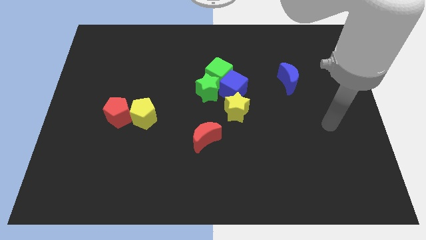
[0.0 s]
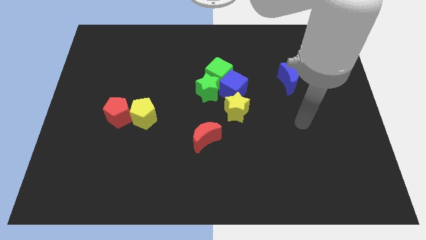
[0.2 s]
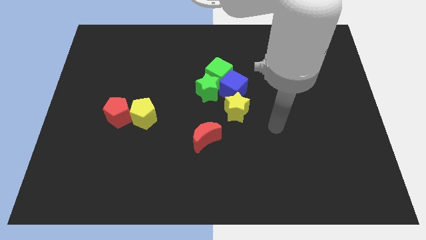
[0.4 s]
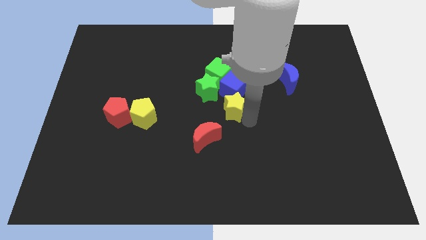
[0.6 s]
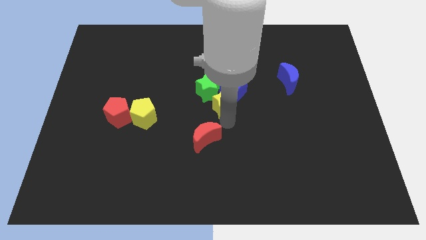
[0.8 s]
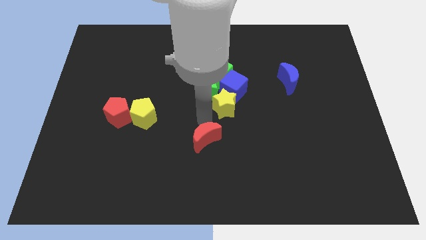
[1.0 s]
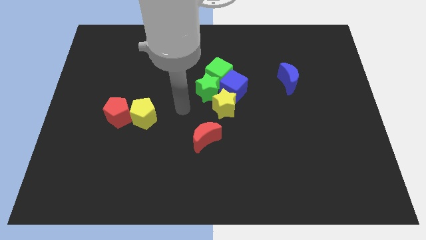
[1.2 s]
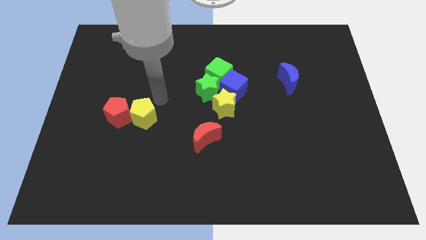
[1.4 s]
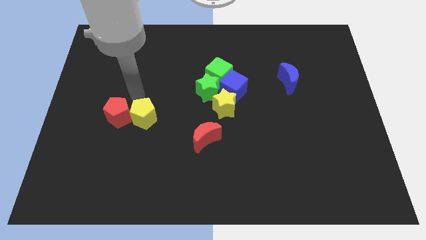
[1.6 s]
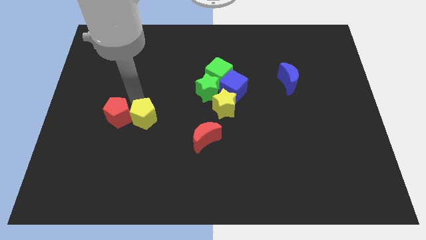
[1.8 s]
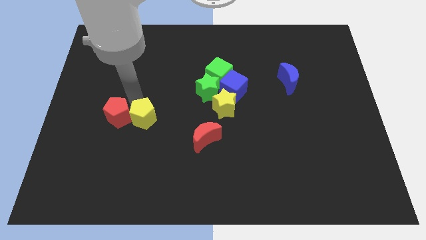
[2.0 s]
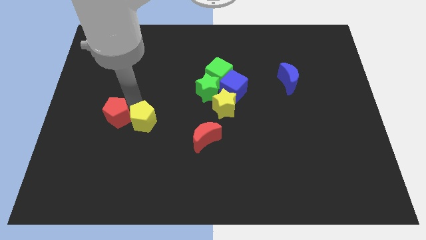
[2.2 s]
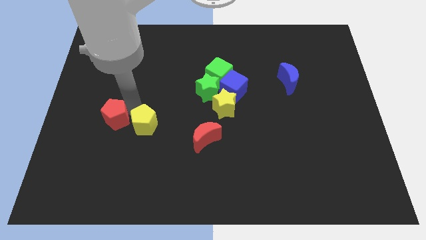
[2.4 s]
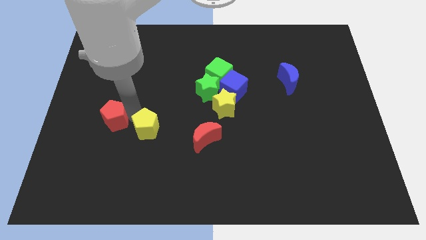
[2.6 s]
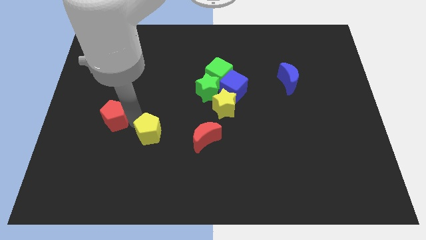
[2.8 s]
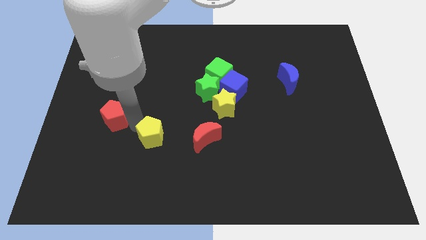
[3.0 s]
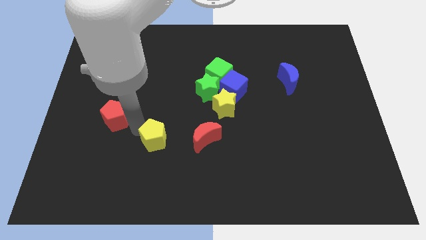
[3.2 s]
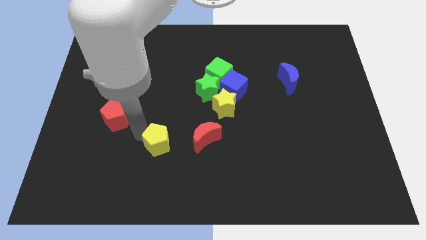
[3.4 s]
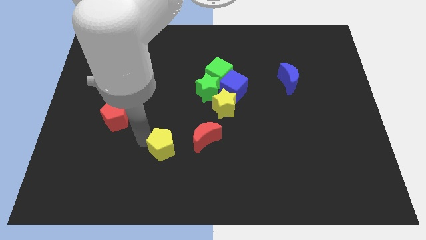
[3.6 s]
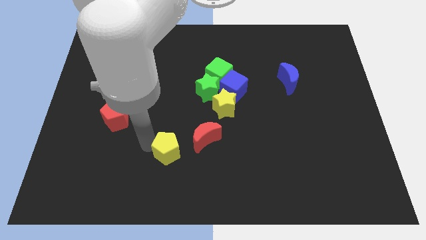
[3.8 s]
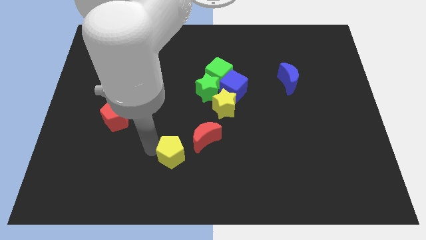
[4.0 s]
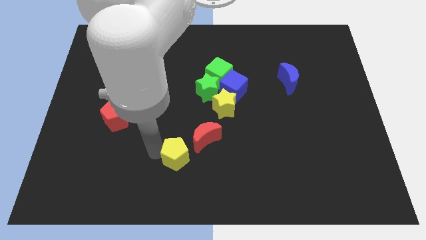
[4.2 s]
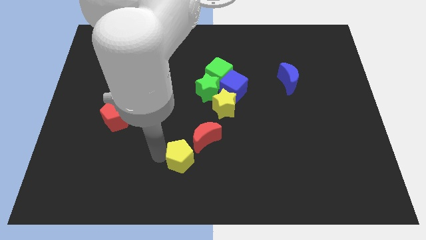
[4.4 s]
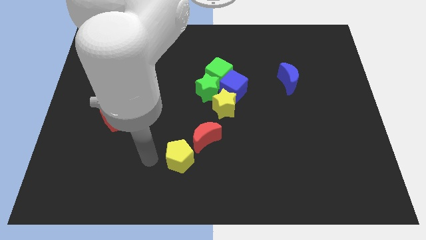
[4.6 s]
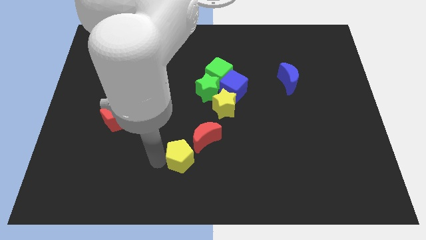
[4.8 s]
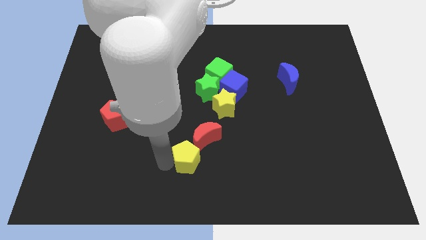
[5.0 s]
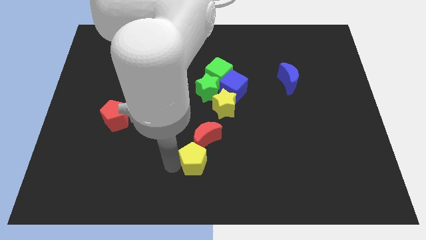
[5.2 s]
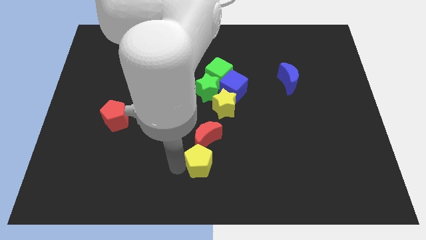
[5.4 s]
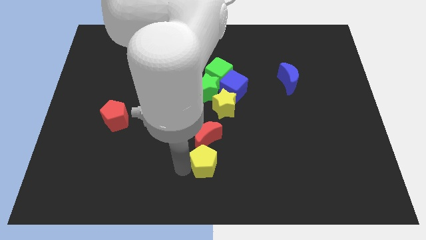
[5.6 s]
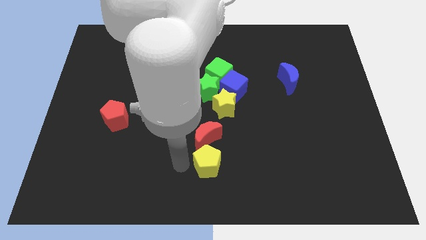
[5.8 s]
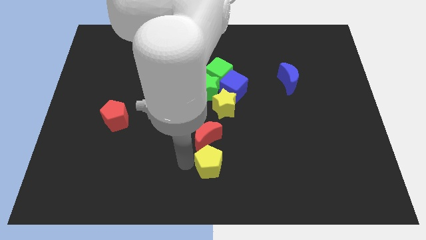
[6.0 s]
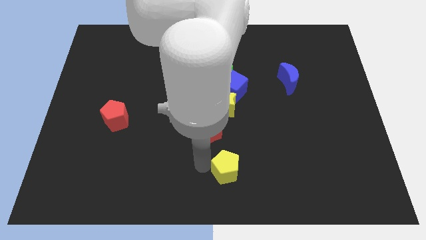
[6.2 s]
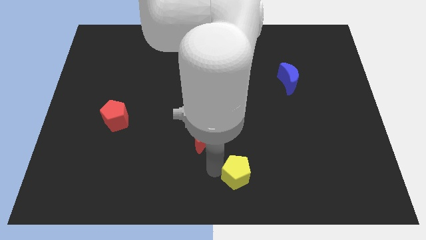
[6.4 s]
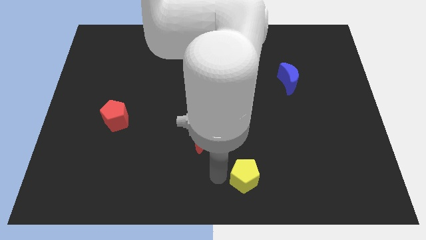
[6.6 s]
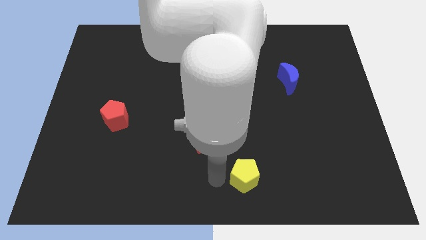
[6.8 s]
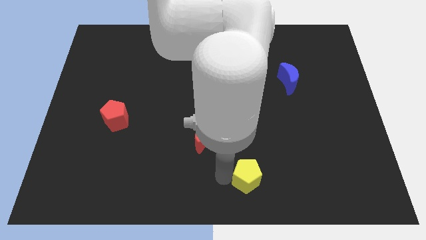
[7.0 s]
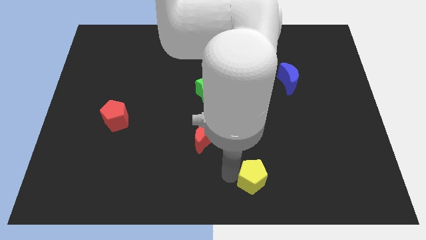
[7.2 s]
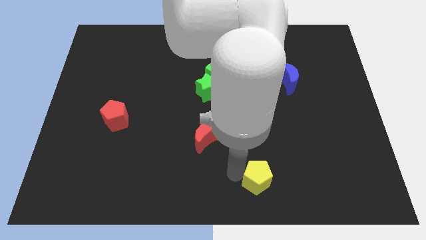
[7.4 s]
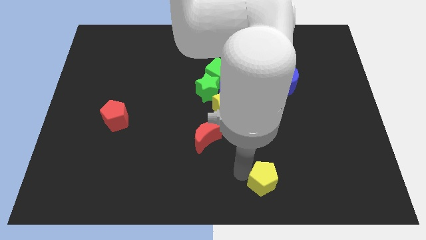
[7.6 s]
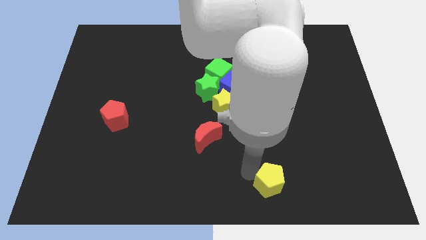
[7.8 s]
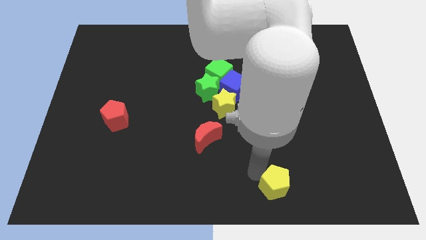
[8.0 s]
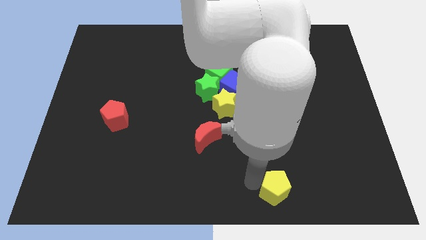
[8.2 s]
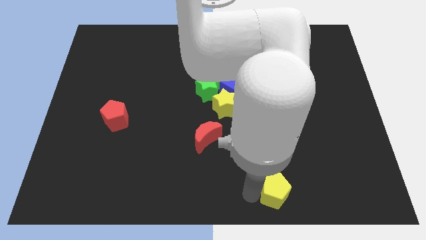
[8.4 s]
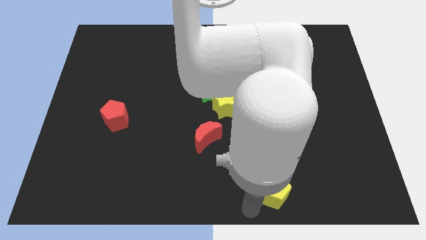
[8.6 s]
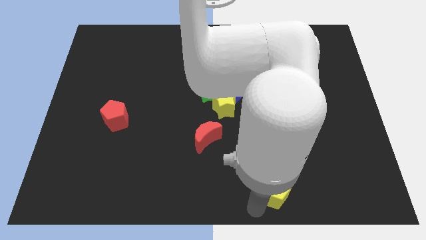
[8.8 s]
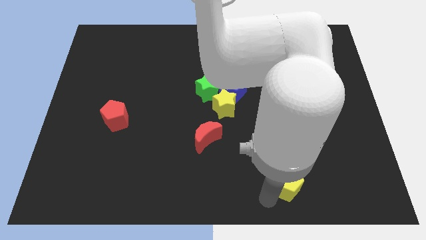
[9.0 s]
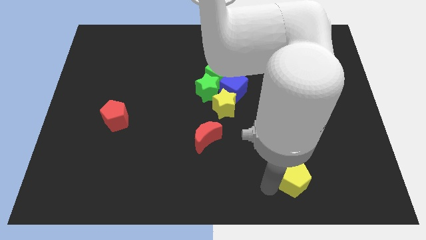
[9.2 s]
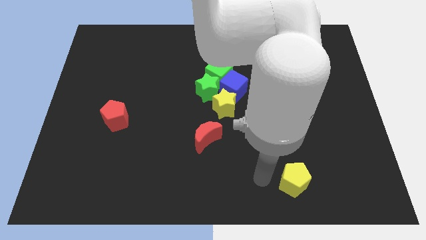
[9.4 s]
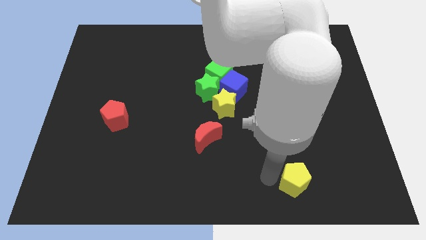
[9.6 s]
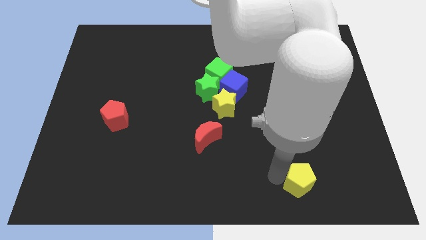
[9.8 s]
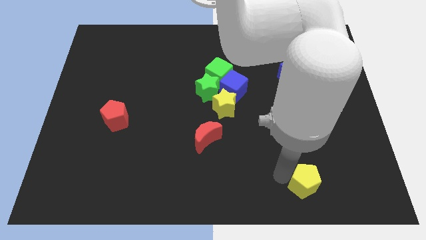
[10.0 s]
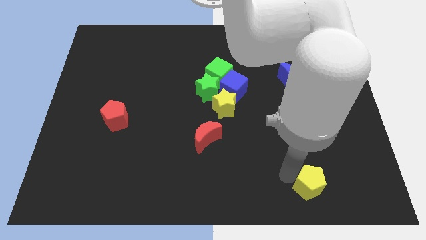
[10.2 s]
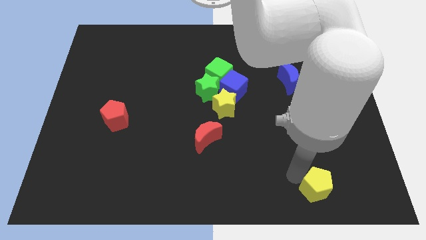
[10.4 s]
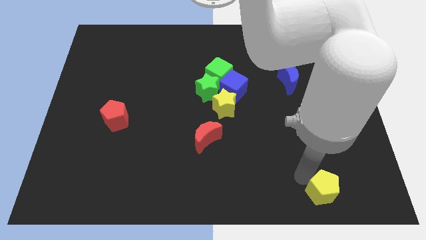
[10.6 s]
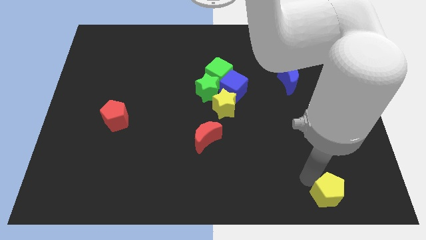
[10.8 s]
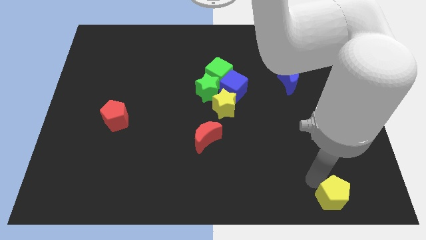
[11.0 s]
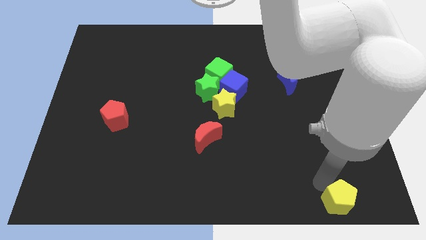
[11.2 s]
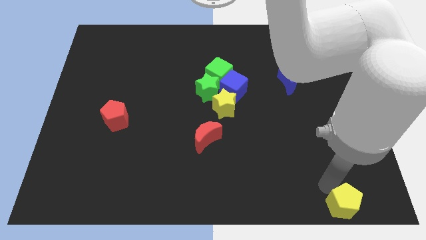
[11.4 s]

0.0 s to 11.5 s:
move the yellow pentagon to the bottom right of the board

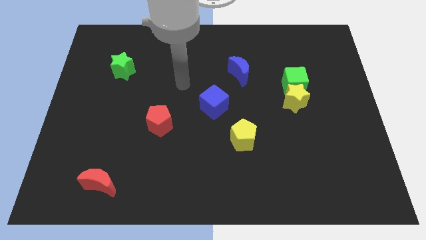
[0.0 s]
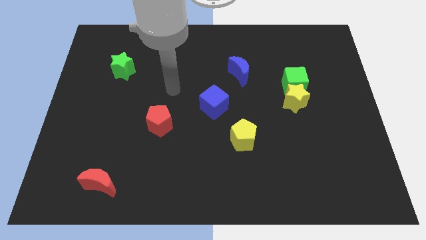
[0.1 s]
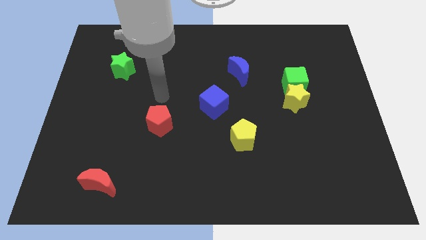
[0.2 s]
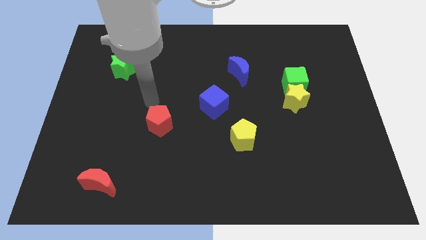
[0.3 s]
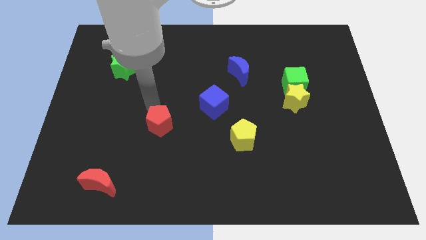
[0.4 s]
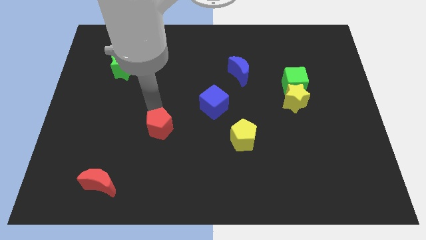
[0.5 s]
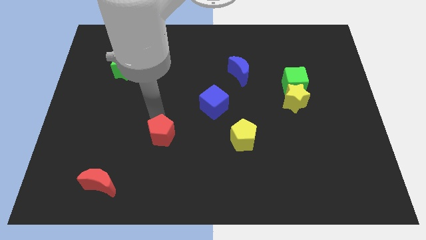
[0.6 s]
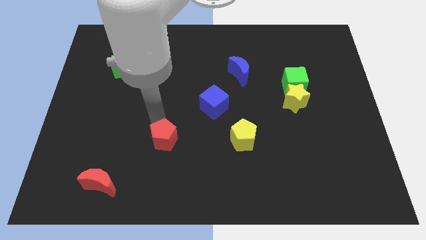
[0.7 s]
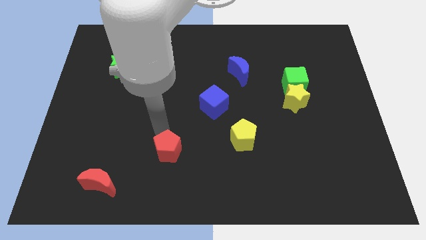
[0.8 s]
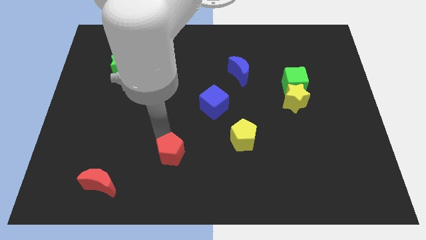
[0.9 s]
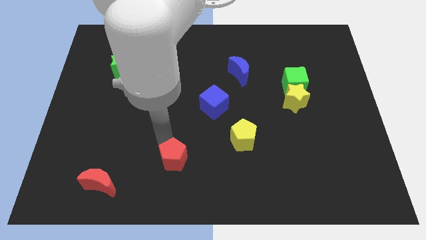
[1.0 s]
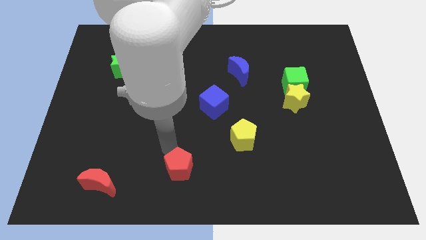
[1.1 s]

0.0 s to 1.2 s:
put the red pentagon to the bottom

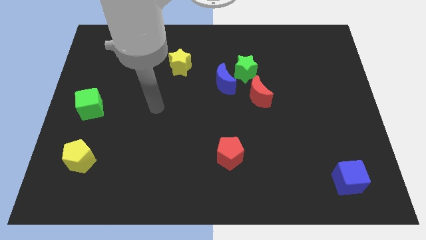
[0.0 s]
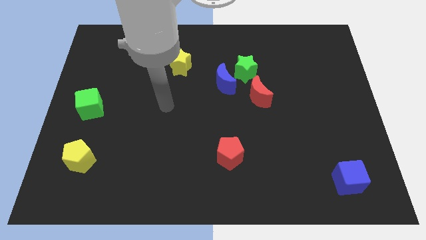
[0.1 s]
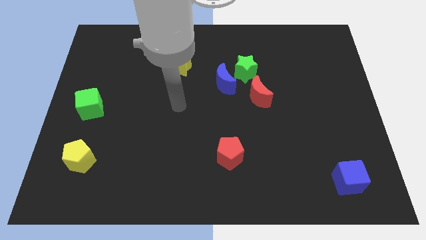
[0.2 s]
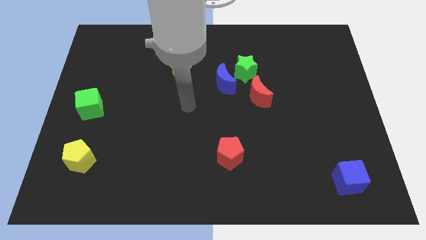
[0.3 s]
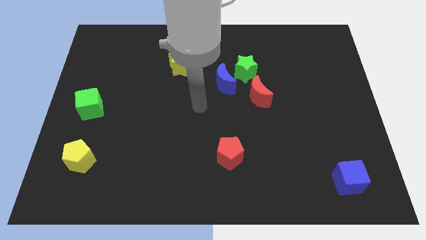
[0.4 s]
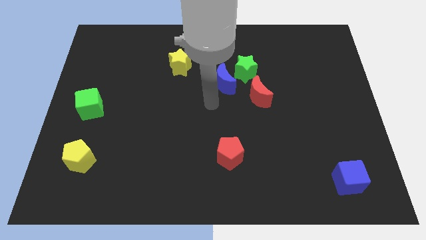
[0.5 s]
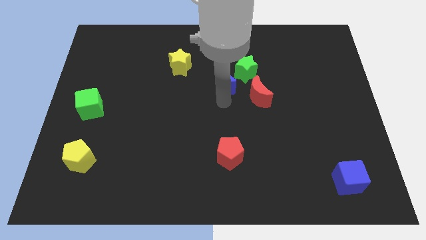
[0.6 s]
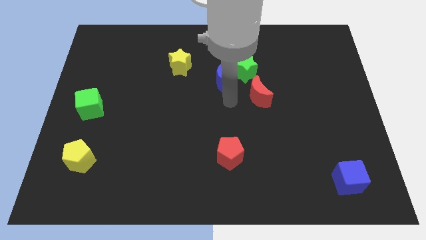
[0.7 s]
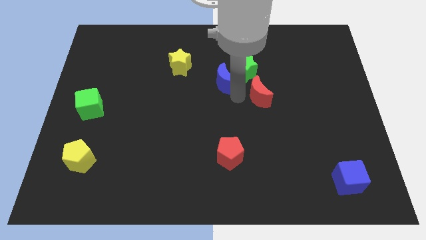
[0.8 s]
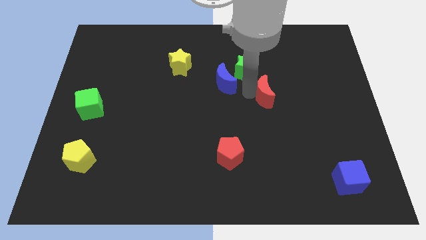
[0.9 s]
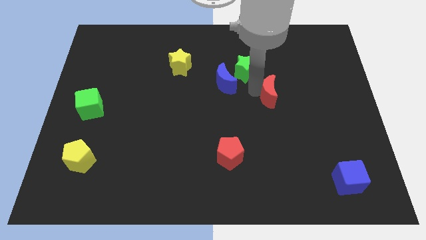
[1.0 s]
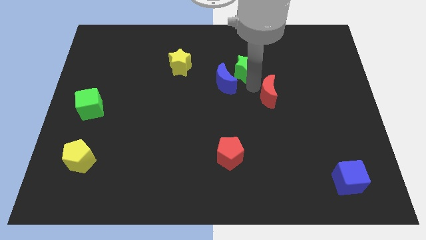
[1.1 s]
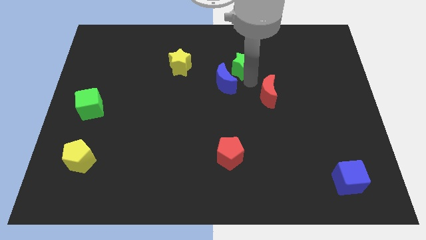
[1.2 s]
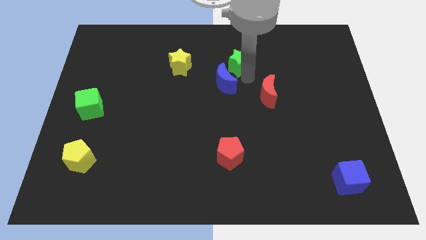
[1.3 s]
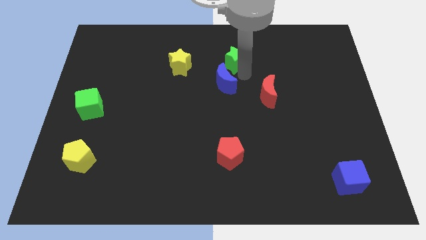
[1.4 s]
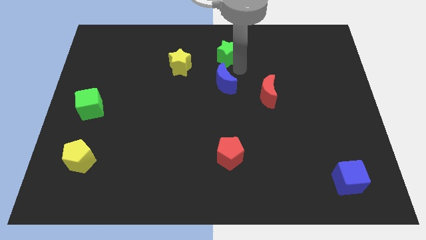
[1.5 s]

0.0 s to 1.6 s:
slide the green star to the towards your base
